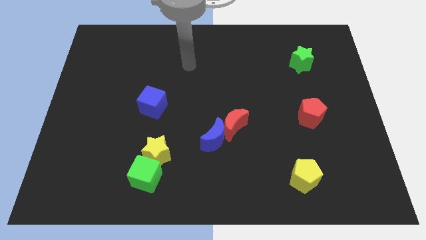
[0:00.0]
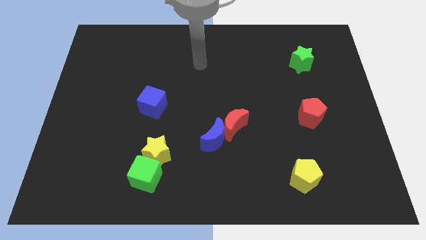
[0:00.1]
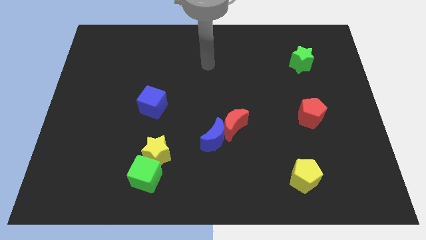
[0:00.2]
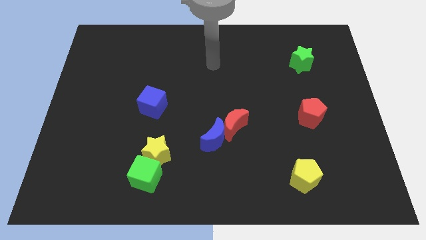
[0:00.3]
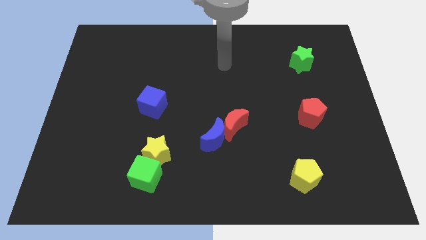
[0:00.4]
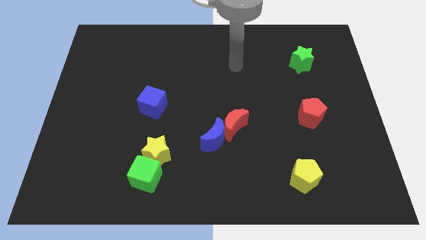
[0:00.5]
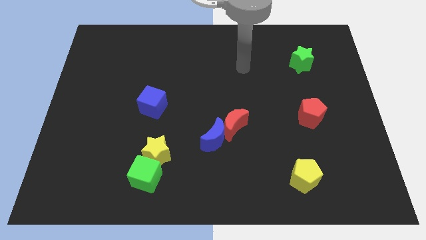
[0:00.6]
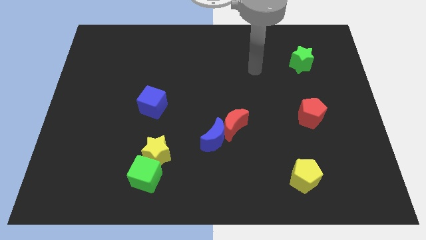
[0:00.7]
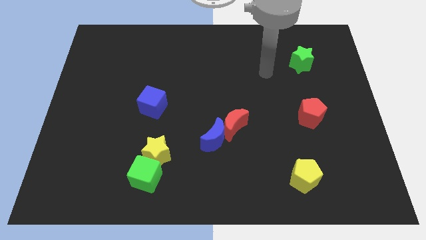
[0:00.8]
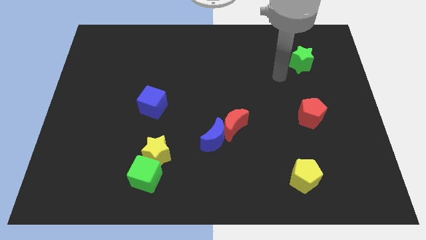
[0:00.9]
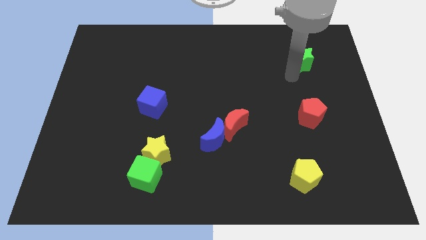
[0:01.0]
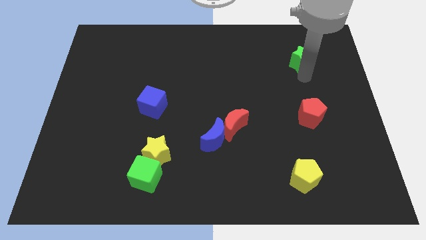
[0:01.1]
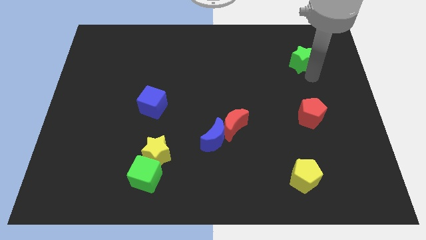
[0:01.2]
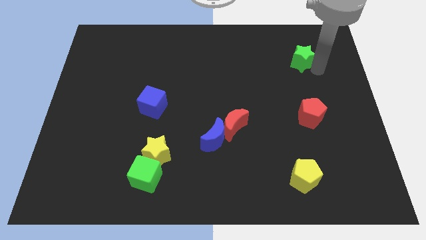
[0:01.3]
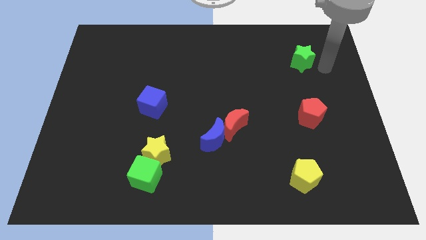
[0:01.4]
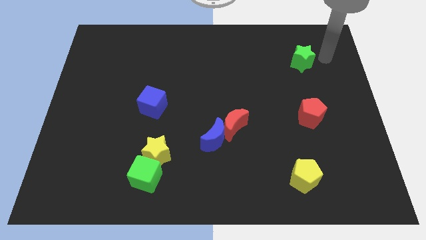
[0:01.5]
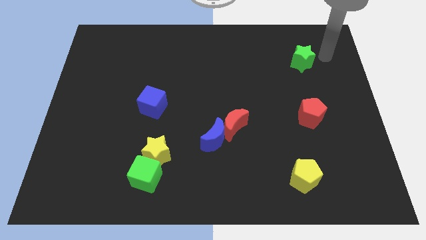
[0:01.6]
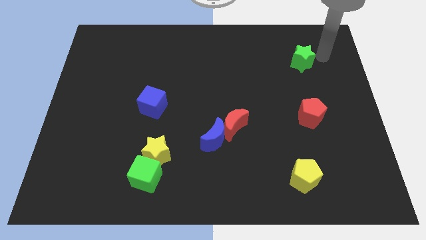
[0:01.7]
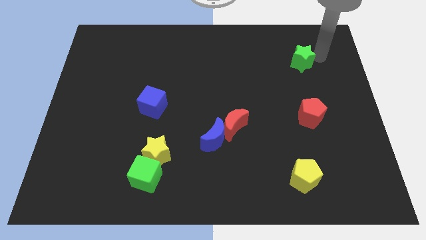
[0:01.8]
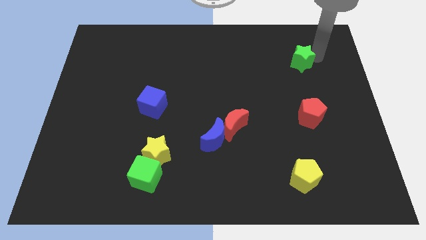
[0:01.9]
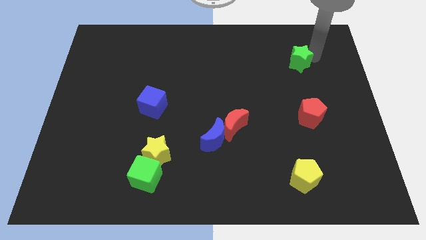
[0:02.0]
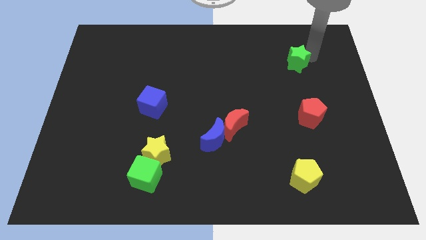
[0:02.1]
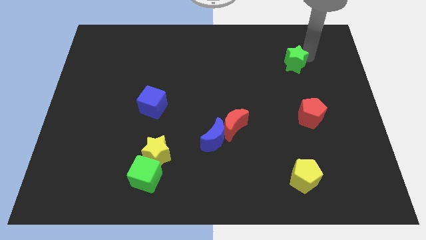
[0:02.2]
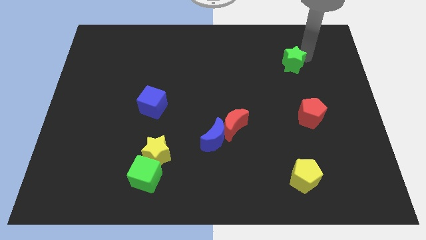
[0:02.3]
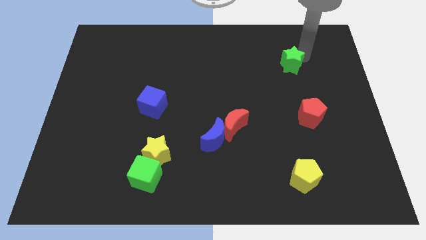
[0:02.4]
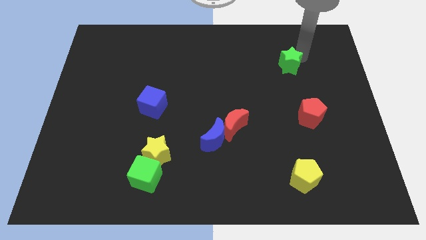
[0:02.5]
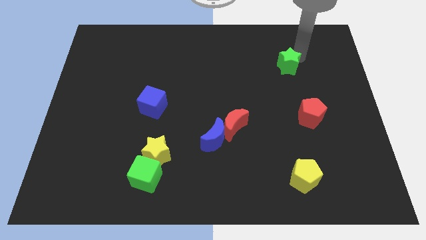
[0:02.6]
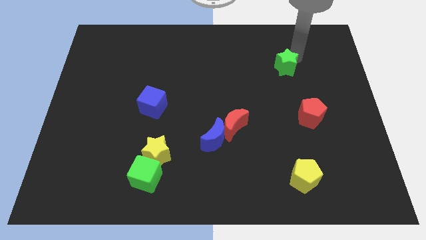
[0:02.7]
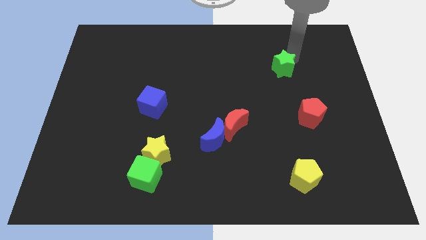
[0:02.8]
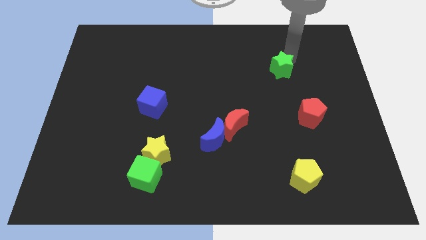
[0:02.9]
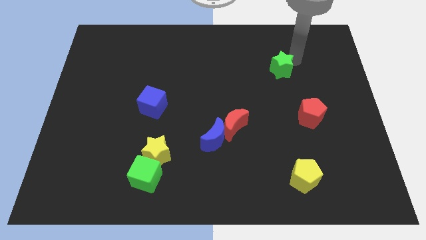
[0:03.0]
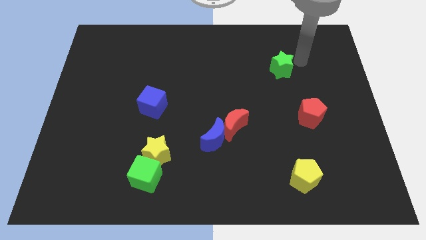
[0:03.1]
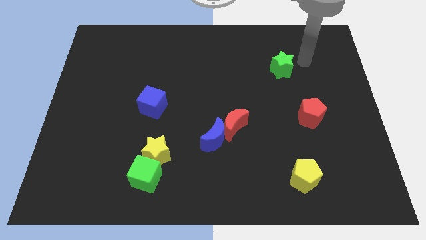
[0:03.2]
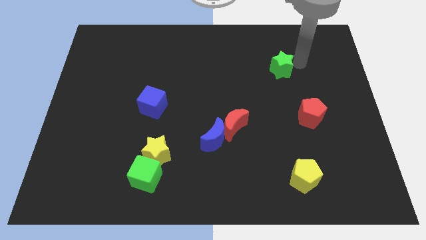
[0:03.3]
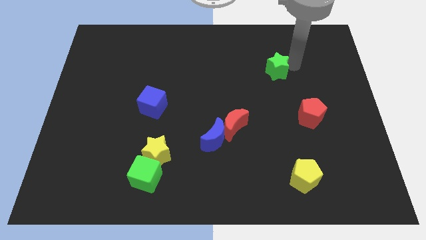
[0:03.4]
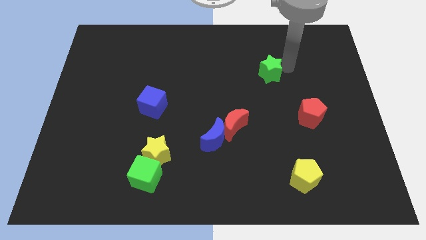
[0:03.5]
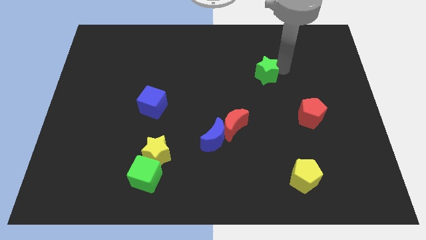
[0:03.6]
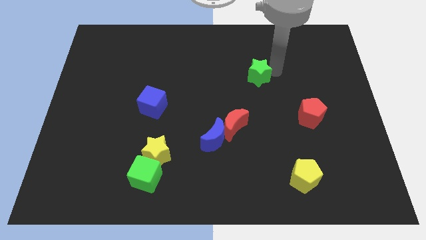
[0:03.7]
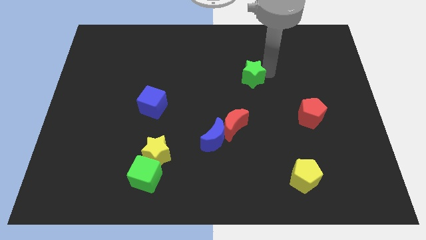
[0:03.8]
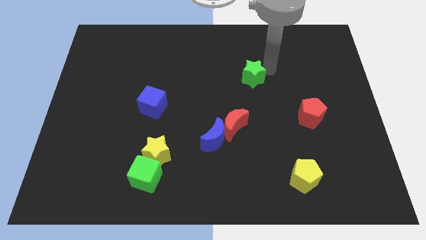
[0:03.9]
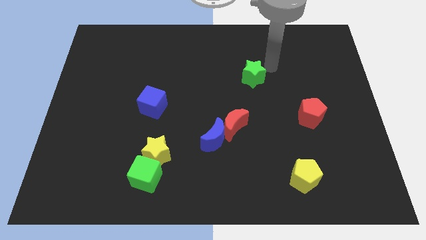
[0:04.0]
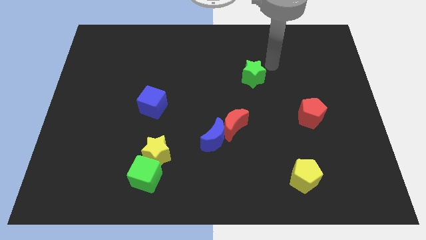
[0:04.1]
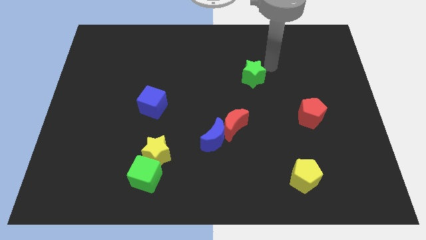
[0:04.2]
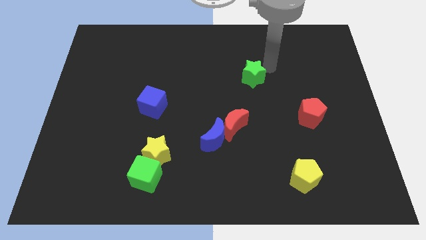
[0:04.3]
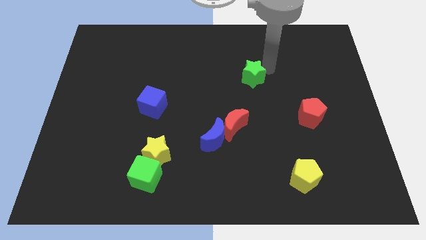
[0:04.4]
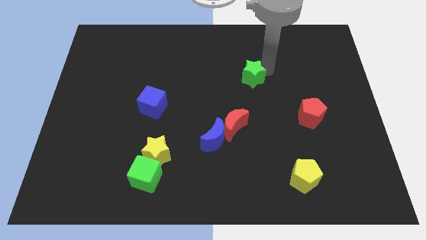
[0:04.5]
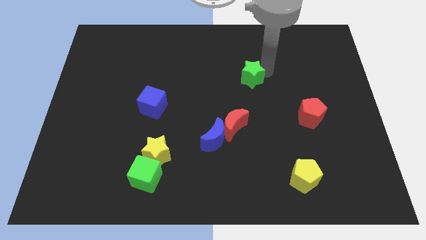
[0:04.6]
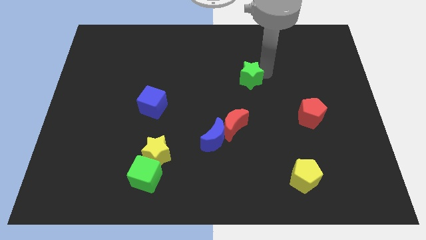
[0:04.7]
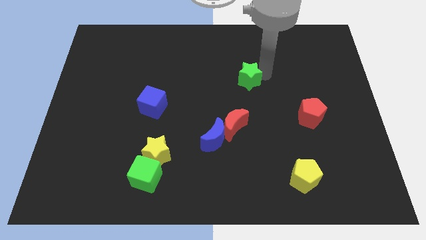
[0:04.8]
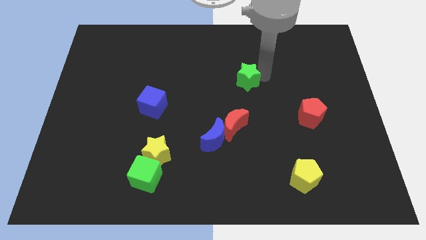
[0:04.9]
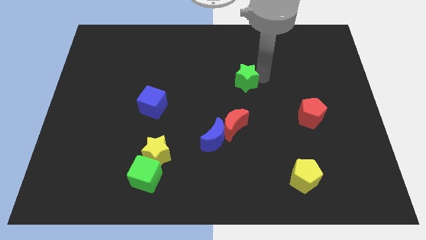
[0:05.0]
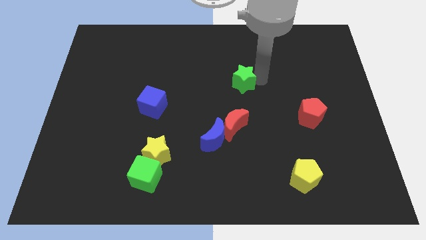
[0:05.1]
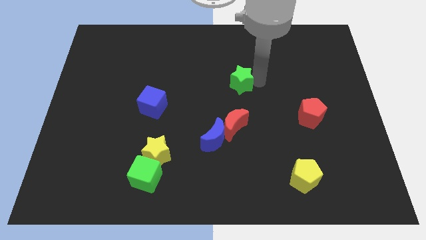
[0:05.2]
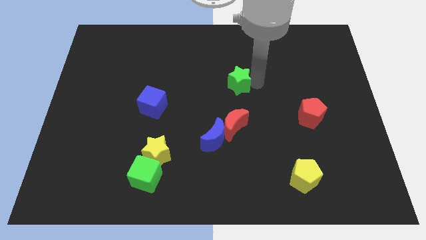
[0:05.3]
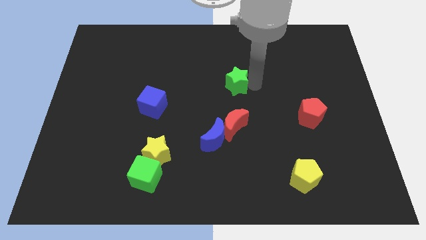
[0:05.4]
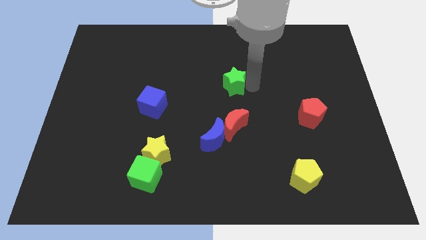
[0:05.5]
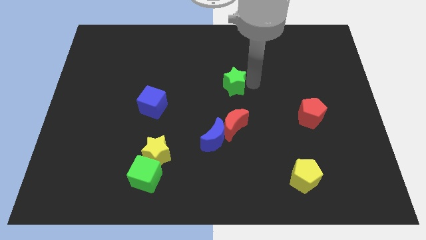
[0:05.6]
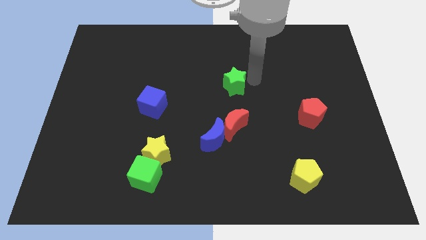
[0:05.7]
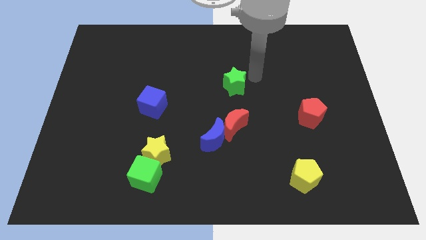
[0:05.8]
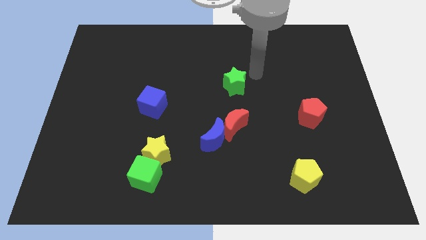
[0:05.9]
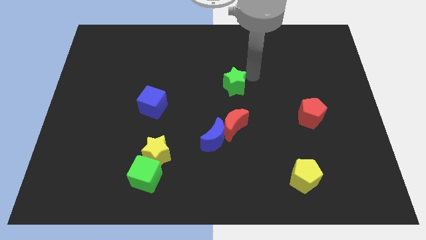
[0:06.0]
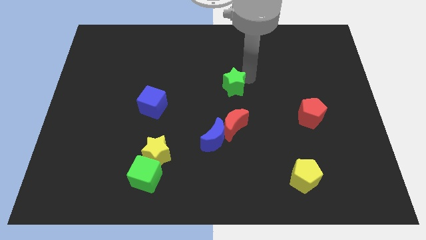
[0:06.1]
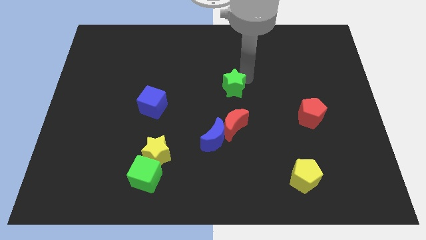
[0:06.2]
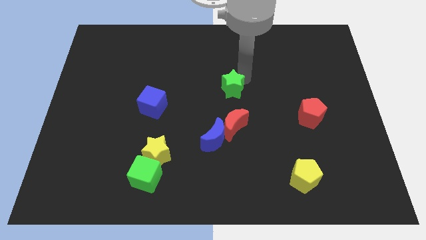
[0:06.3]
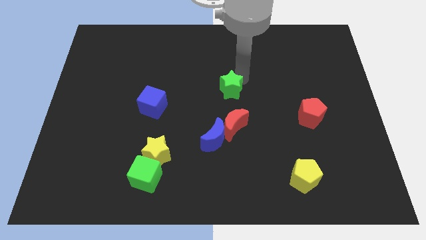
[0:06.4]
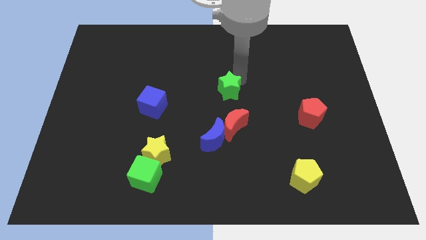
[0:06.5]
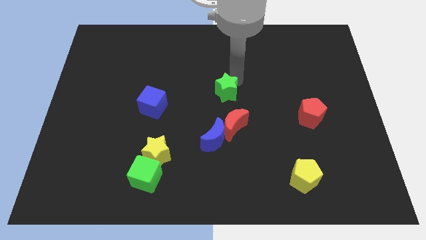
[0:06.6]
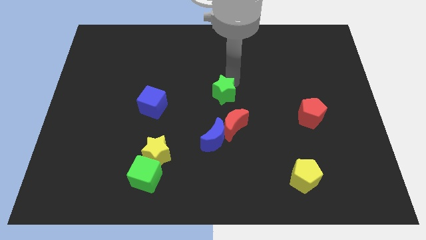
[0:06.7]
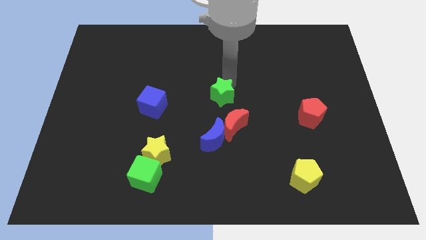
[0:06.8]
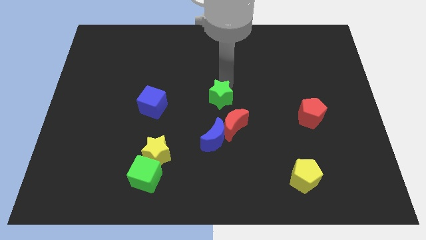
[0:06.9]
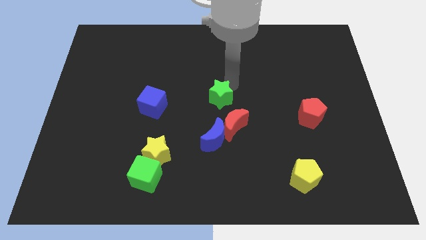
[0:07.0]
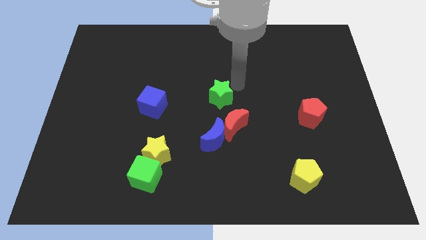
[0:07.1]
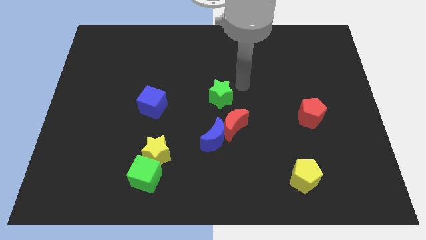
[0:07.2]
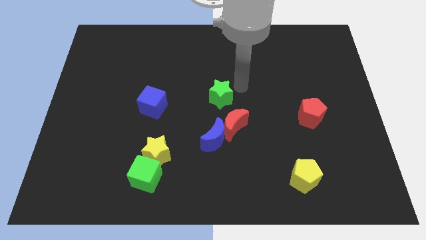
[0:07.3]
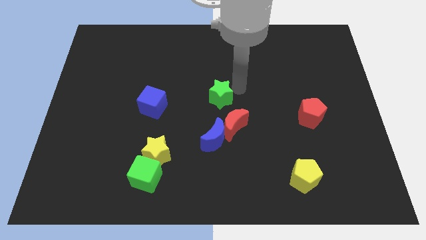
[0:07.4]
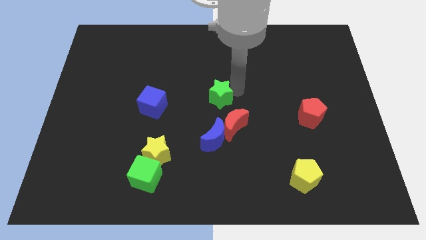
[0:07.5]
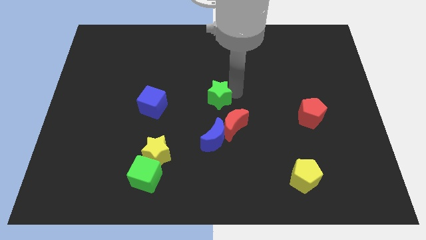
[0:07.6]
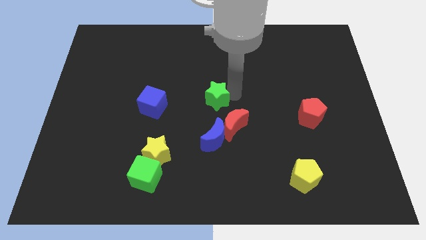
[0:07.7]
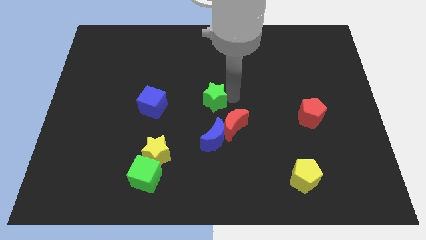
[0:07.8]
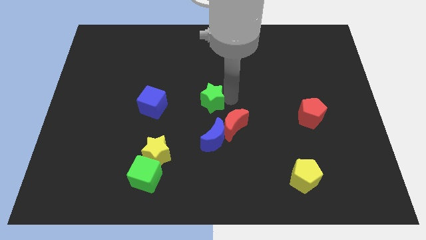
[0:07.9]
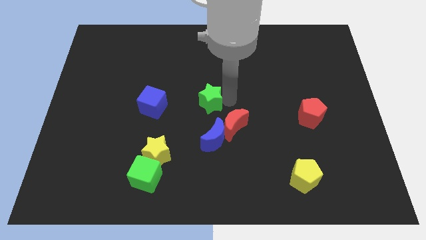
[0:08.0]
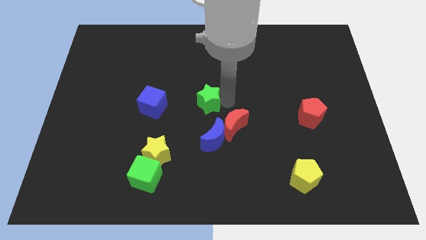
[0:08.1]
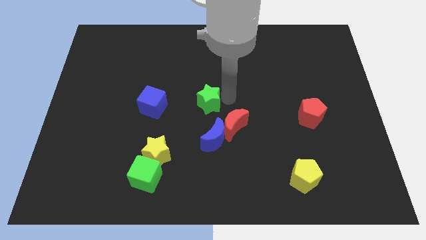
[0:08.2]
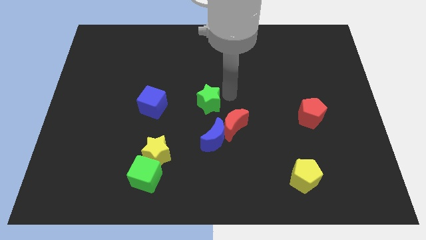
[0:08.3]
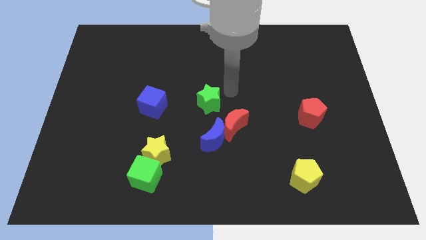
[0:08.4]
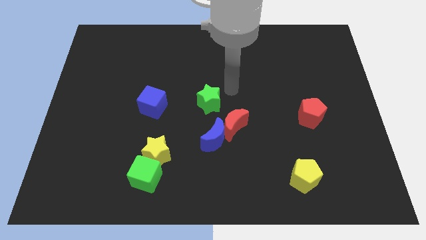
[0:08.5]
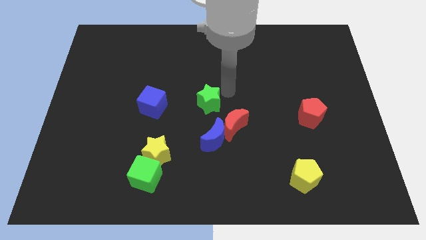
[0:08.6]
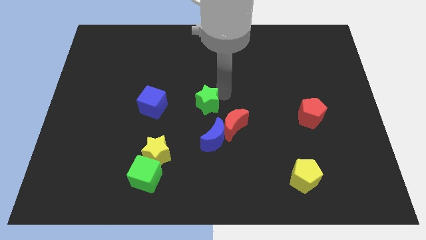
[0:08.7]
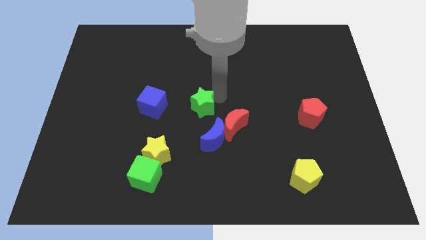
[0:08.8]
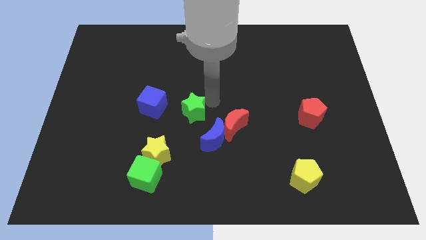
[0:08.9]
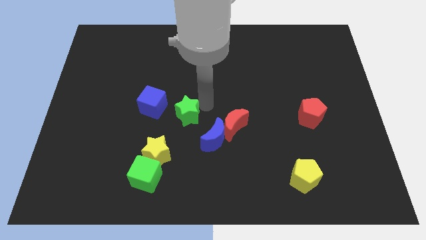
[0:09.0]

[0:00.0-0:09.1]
put the green star to the bottom right of the blue cube
